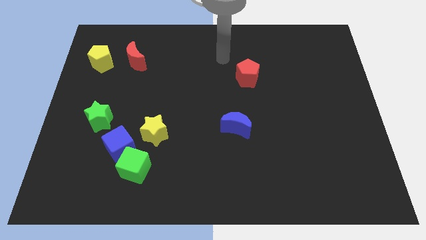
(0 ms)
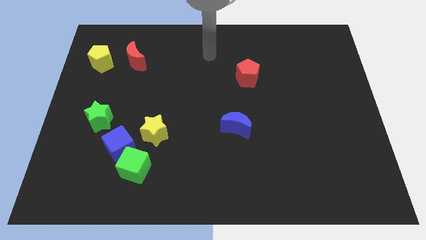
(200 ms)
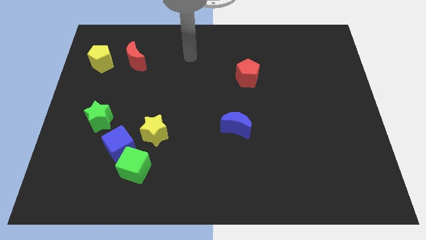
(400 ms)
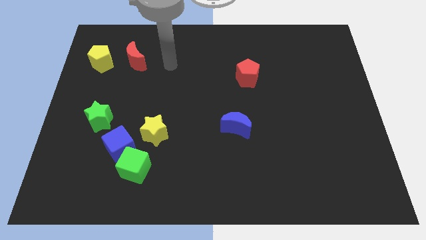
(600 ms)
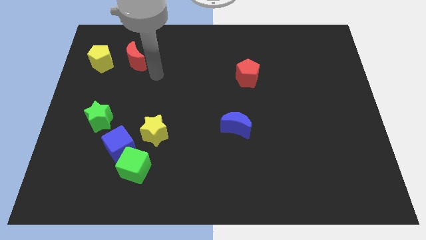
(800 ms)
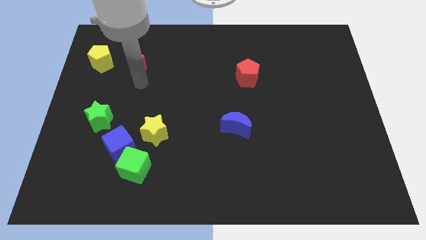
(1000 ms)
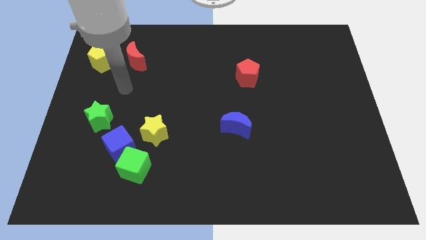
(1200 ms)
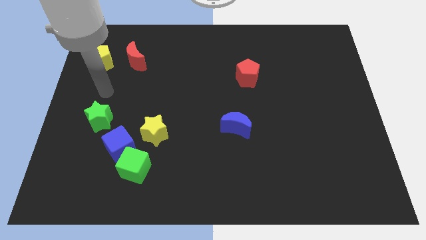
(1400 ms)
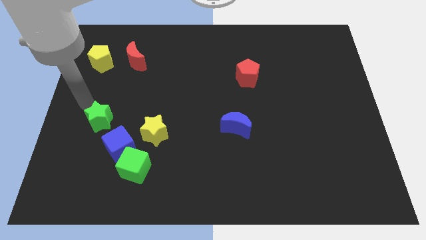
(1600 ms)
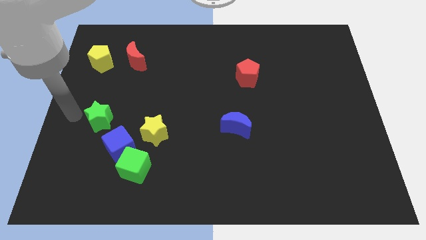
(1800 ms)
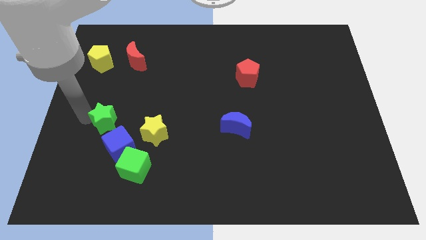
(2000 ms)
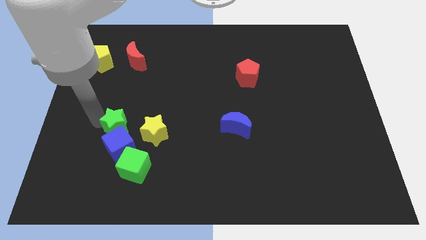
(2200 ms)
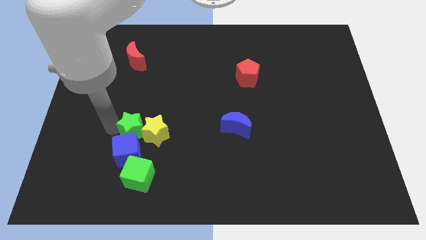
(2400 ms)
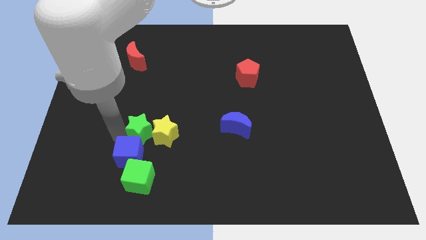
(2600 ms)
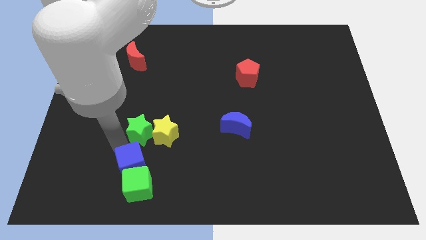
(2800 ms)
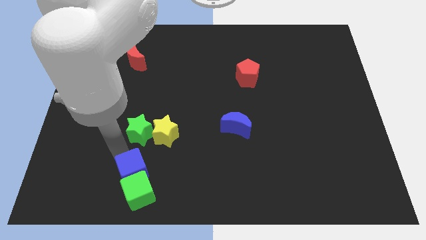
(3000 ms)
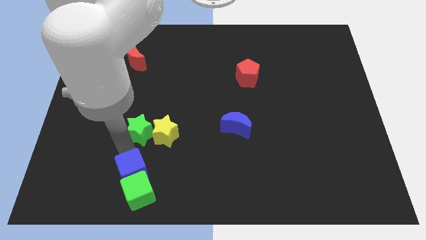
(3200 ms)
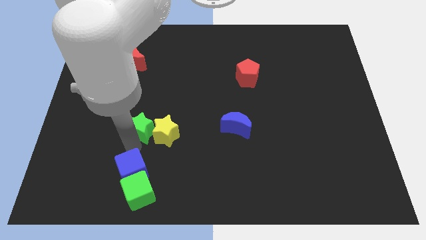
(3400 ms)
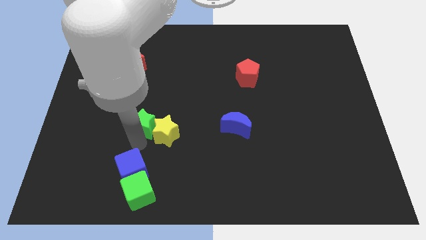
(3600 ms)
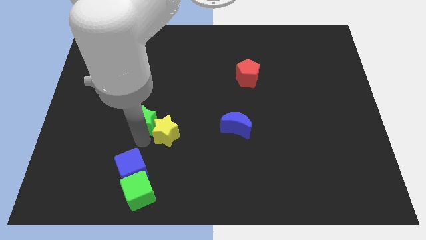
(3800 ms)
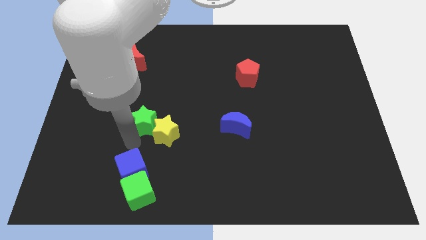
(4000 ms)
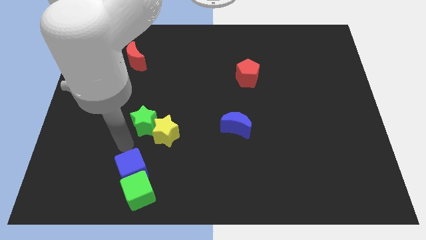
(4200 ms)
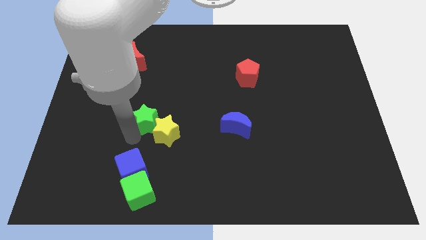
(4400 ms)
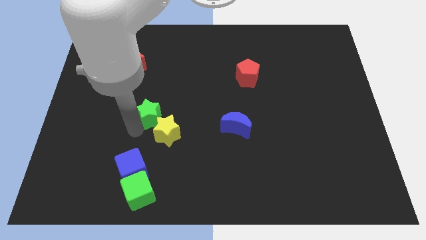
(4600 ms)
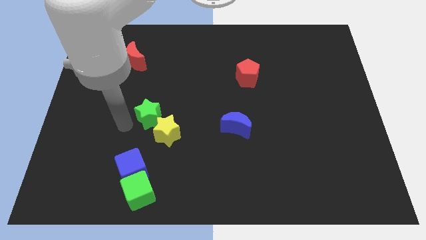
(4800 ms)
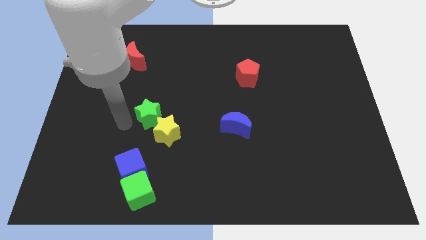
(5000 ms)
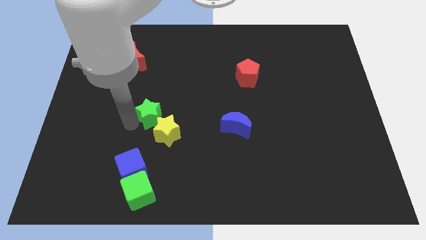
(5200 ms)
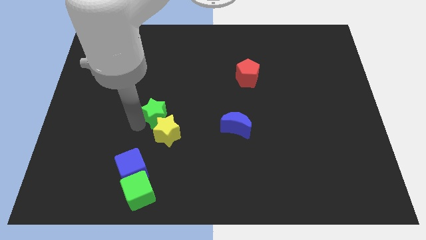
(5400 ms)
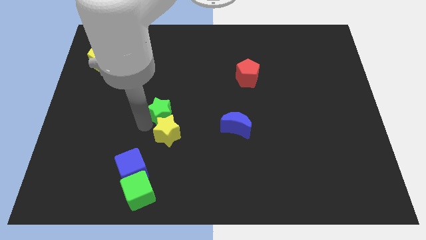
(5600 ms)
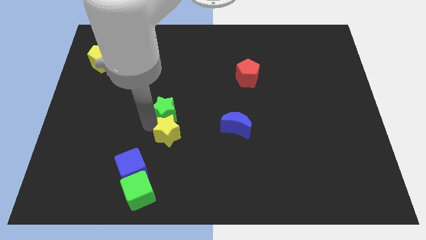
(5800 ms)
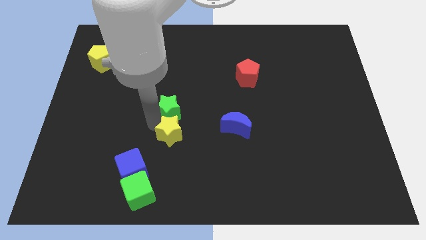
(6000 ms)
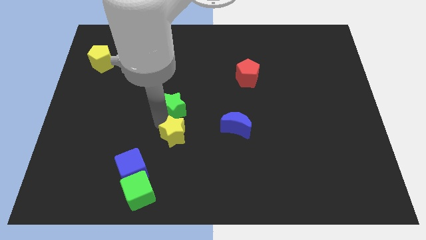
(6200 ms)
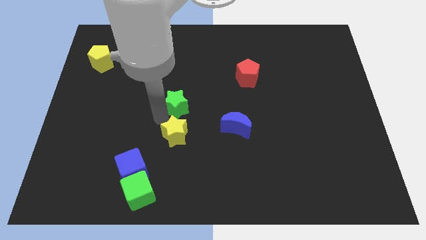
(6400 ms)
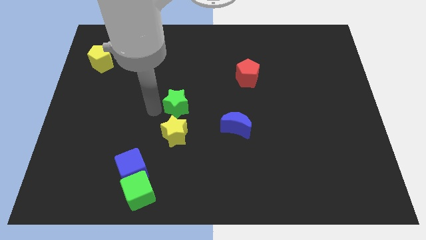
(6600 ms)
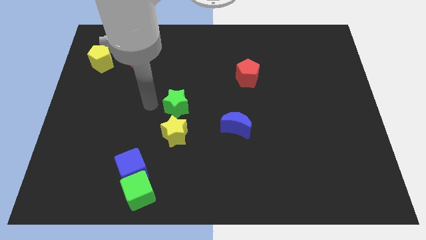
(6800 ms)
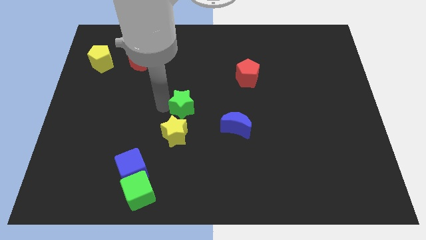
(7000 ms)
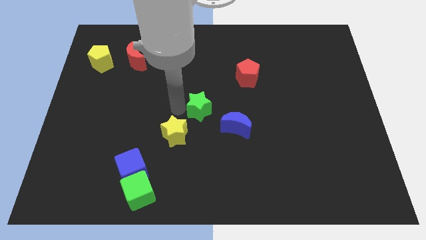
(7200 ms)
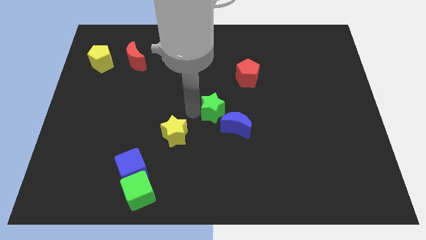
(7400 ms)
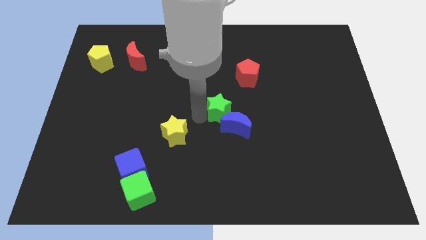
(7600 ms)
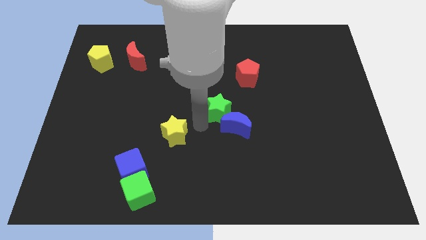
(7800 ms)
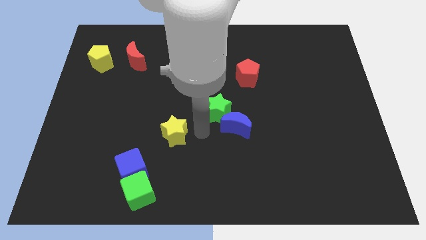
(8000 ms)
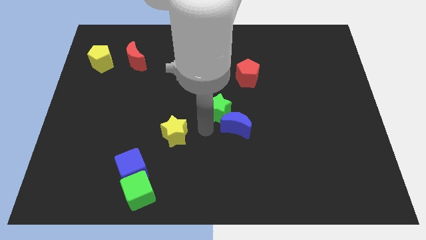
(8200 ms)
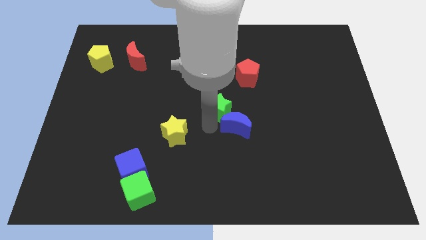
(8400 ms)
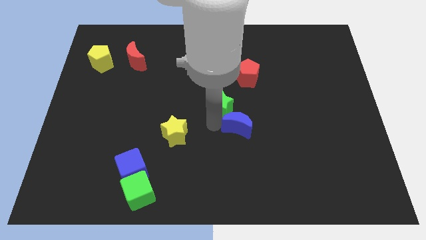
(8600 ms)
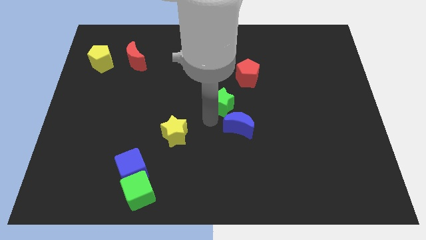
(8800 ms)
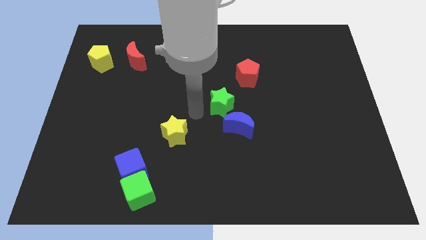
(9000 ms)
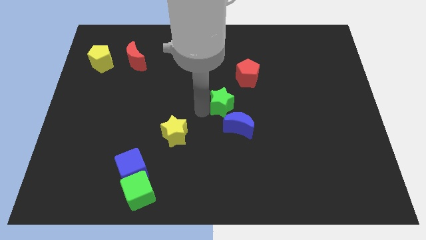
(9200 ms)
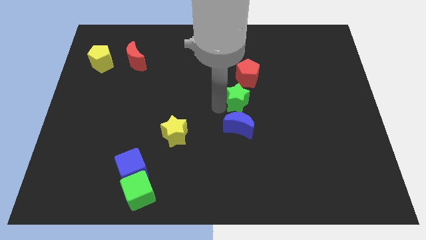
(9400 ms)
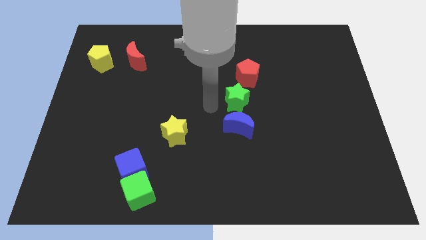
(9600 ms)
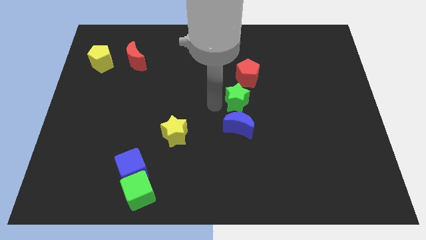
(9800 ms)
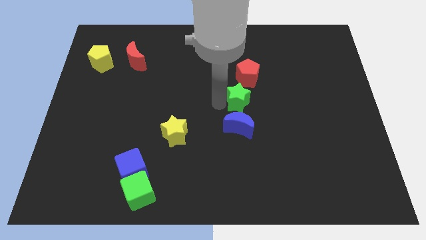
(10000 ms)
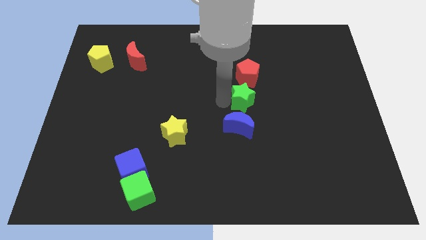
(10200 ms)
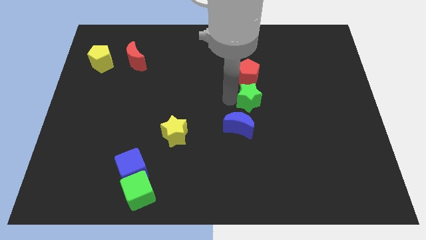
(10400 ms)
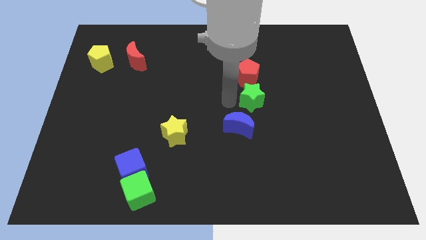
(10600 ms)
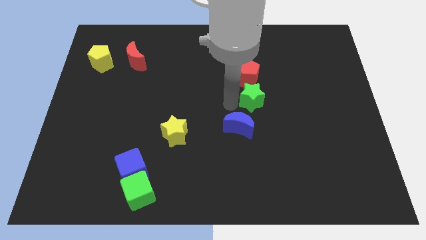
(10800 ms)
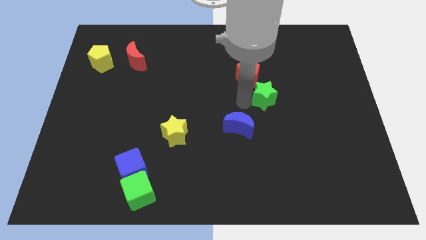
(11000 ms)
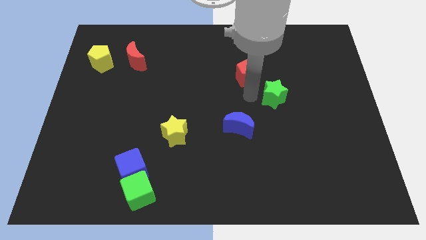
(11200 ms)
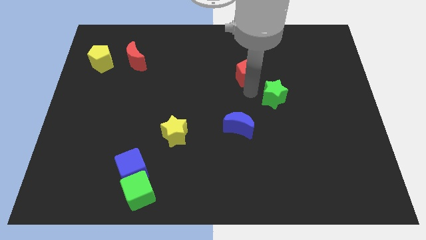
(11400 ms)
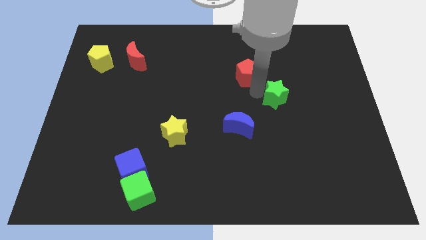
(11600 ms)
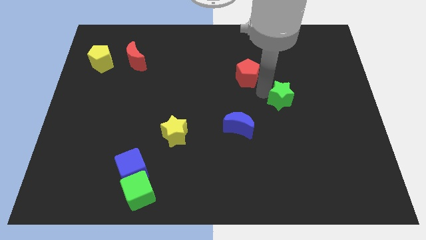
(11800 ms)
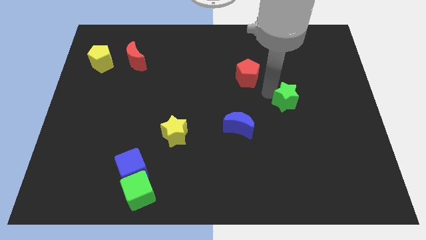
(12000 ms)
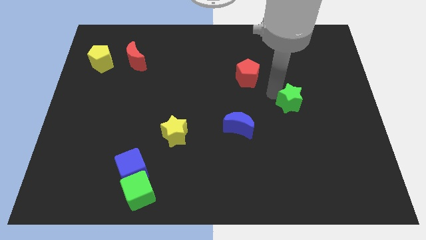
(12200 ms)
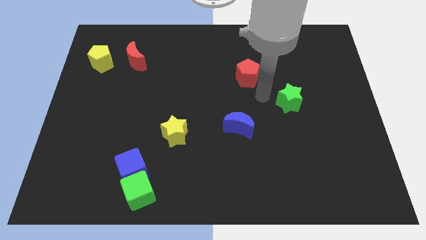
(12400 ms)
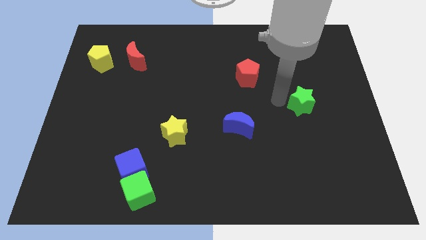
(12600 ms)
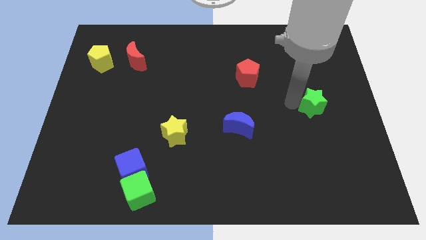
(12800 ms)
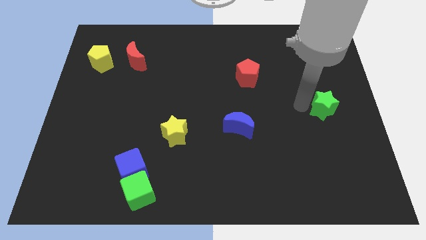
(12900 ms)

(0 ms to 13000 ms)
slide the green star to the right side
